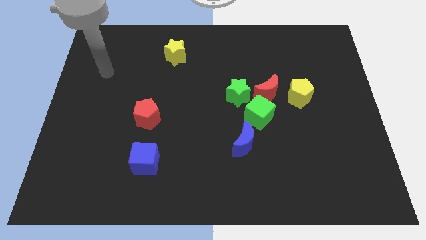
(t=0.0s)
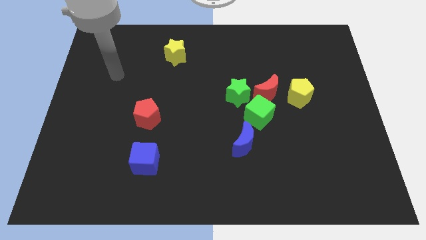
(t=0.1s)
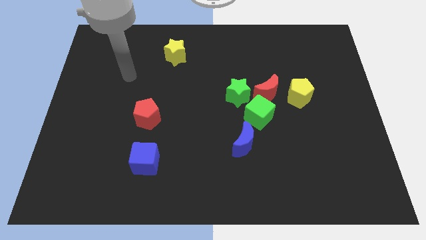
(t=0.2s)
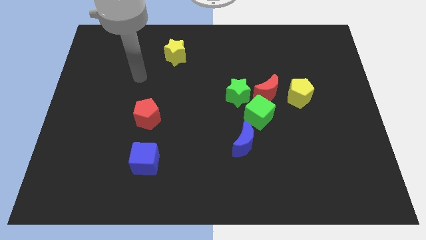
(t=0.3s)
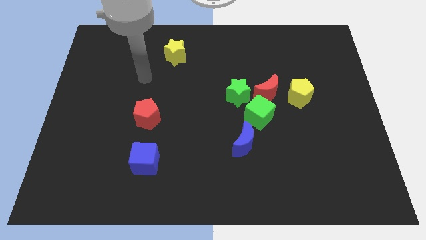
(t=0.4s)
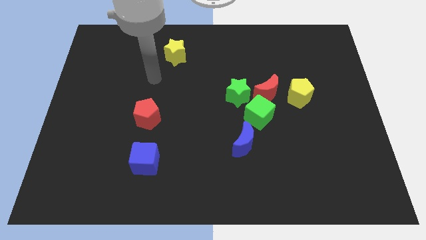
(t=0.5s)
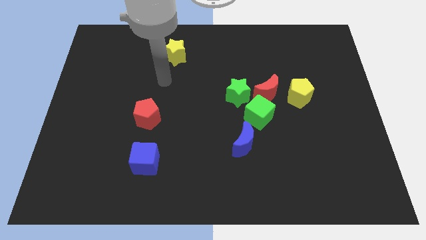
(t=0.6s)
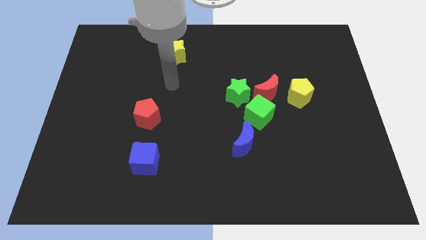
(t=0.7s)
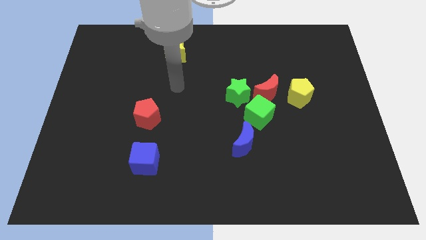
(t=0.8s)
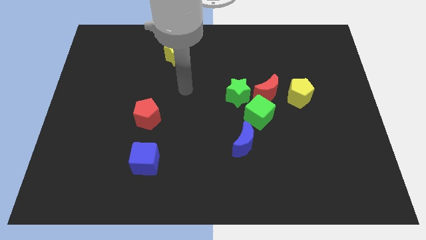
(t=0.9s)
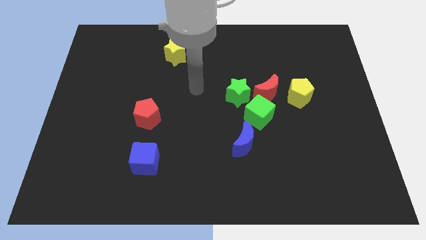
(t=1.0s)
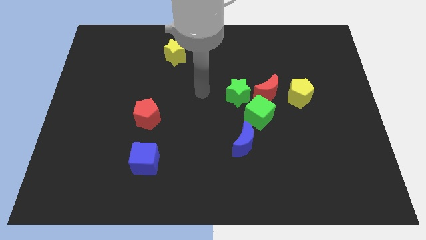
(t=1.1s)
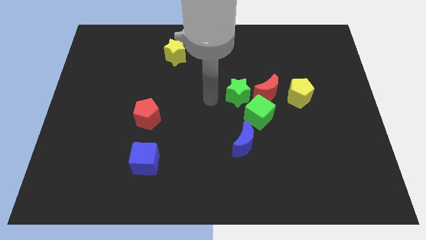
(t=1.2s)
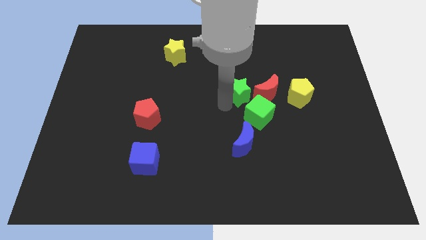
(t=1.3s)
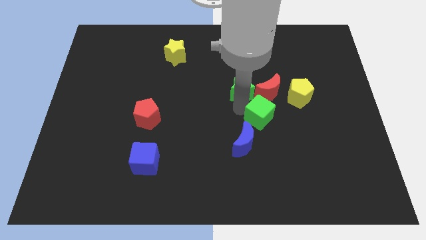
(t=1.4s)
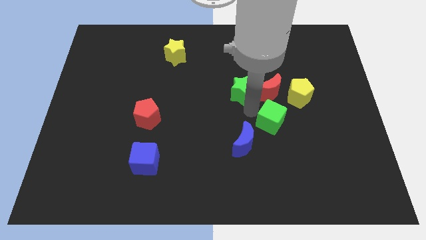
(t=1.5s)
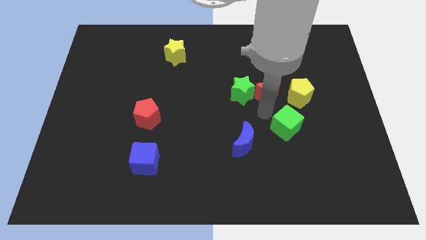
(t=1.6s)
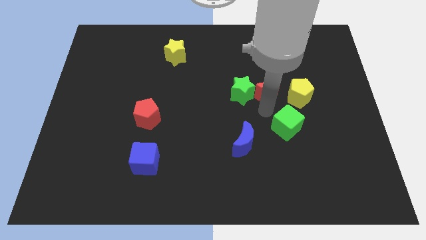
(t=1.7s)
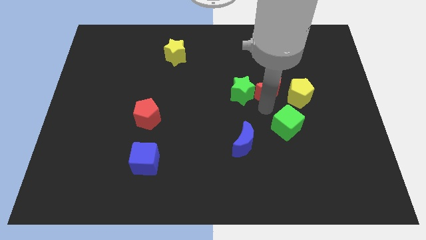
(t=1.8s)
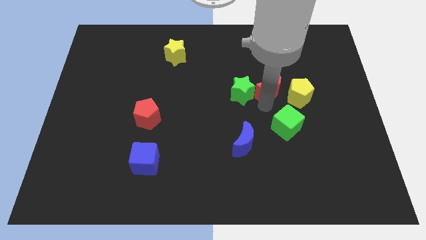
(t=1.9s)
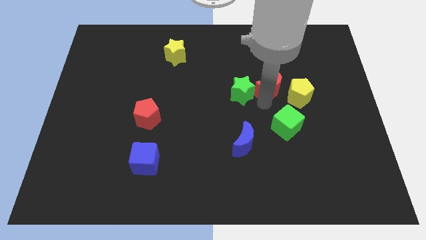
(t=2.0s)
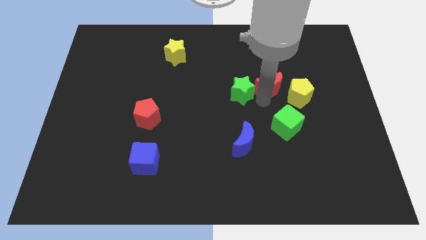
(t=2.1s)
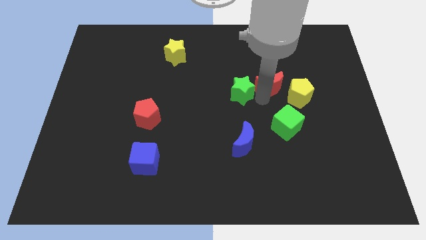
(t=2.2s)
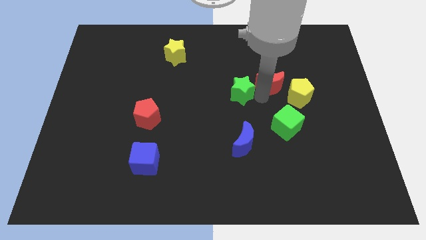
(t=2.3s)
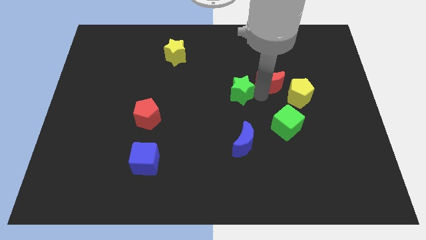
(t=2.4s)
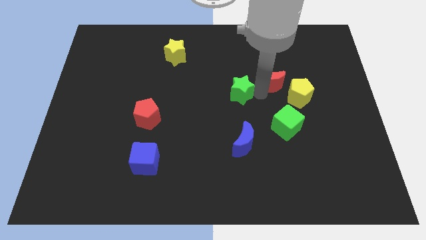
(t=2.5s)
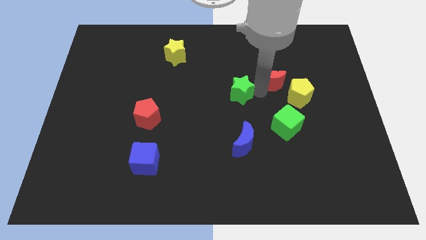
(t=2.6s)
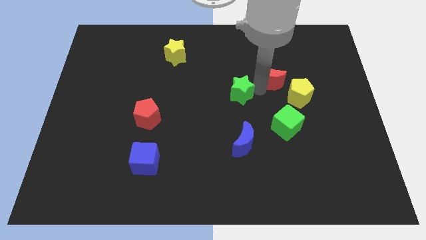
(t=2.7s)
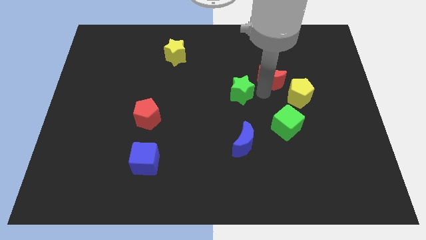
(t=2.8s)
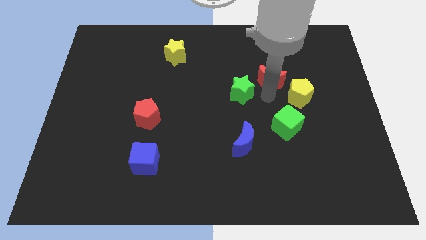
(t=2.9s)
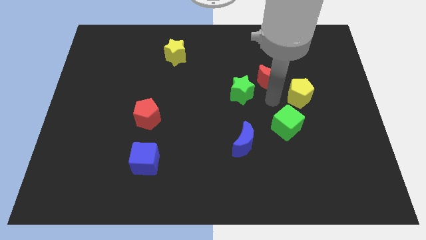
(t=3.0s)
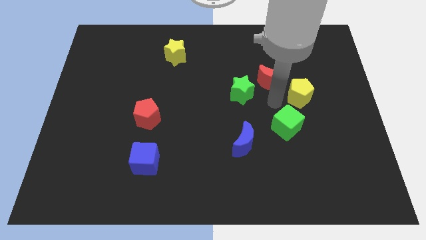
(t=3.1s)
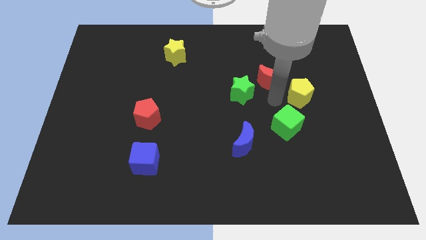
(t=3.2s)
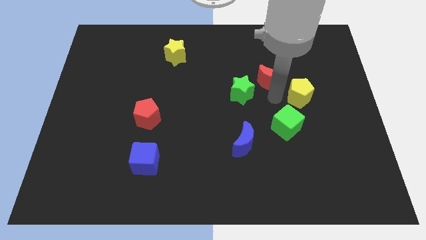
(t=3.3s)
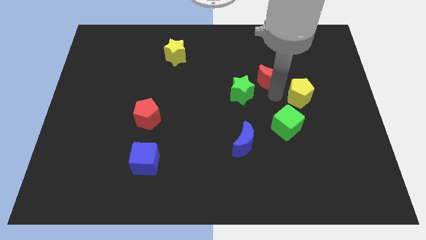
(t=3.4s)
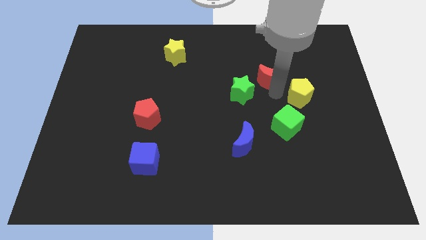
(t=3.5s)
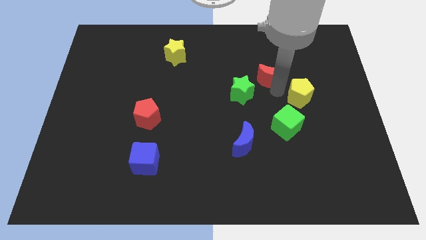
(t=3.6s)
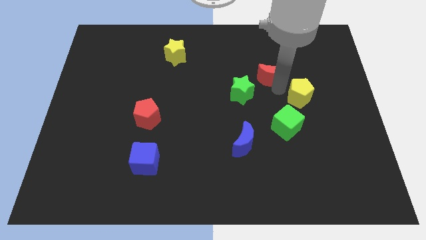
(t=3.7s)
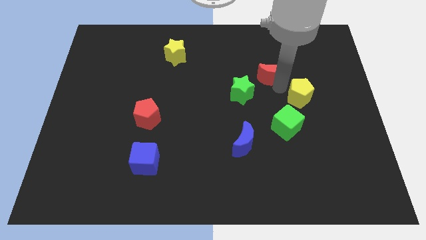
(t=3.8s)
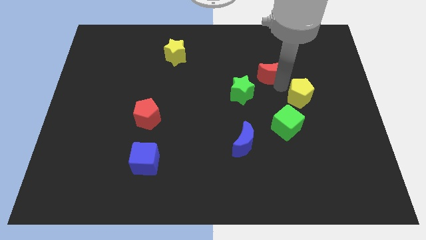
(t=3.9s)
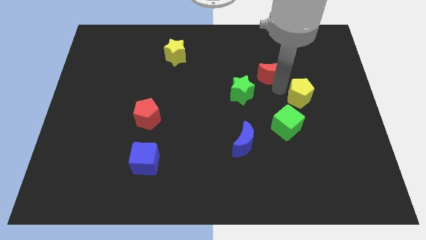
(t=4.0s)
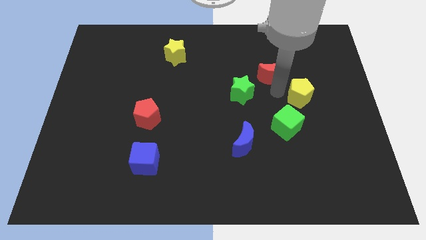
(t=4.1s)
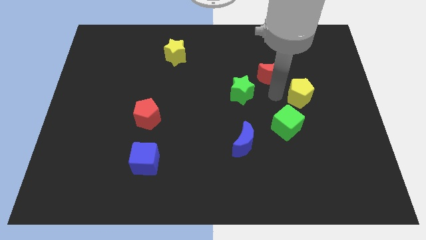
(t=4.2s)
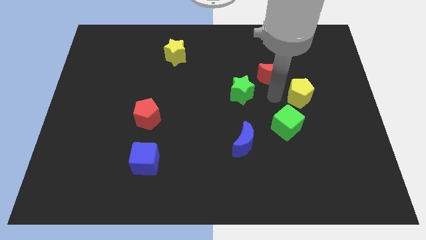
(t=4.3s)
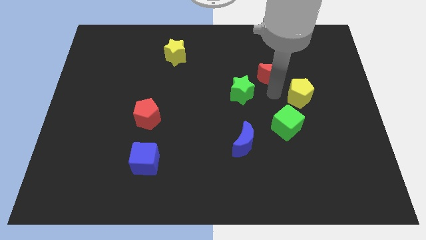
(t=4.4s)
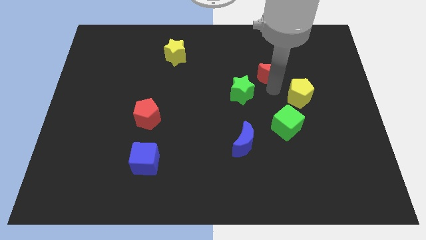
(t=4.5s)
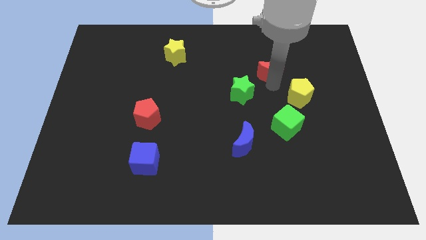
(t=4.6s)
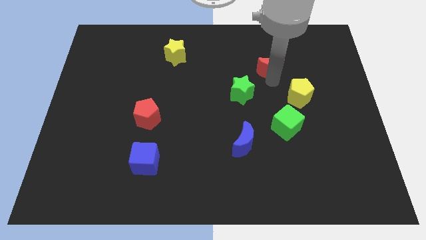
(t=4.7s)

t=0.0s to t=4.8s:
pull the red moon apart from the green cube, green star, and yellow pentagon

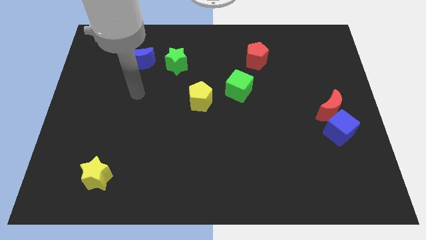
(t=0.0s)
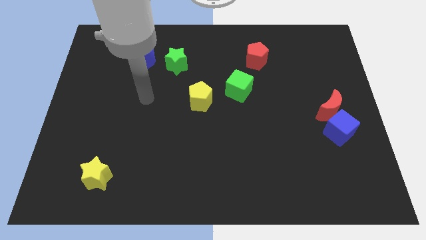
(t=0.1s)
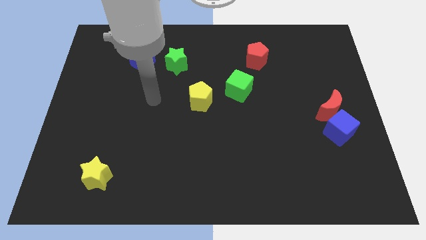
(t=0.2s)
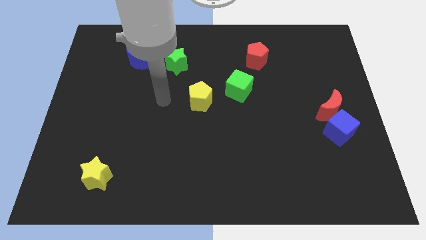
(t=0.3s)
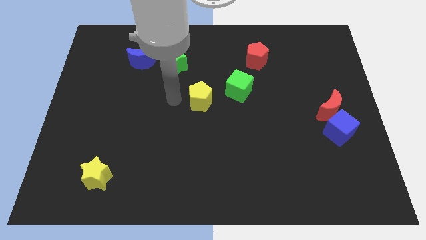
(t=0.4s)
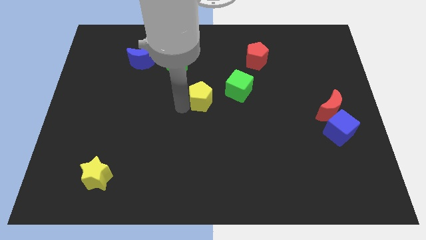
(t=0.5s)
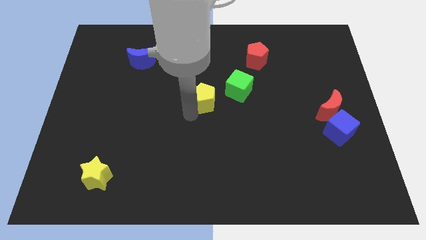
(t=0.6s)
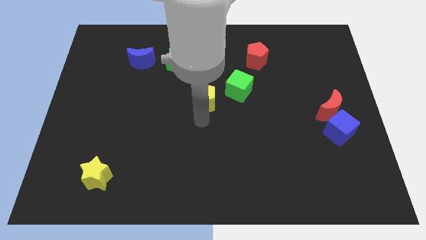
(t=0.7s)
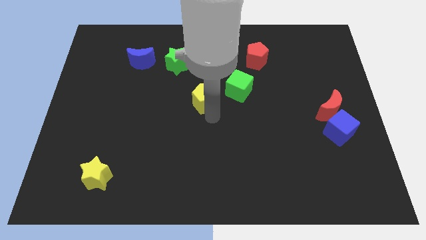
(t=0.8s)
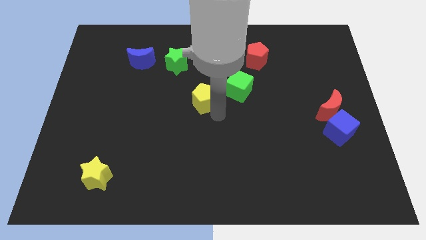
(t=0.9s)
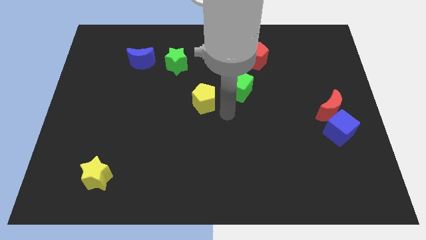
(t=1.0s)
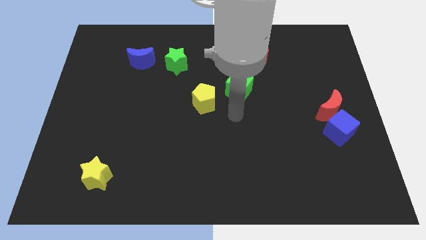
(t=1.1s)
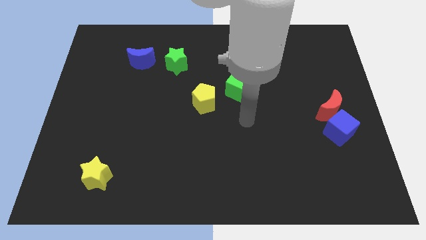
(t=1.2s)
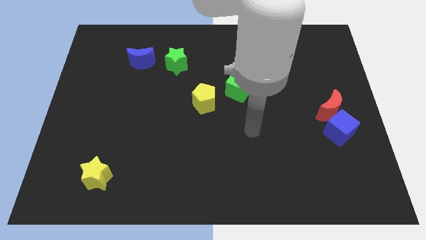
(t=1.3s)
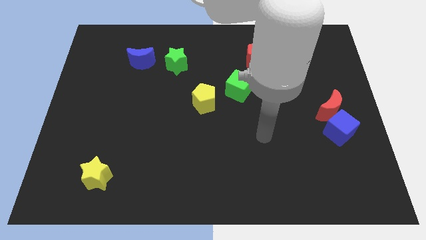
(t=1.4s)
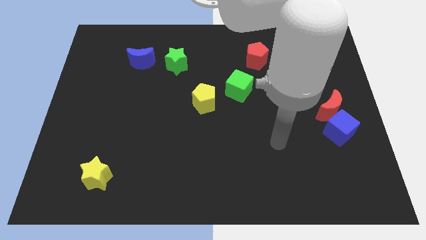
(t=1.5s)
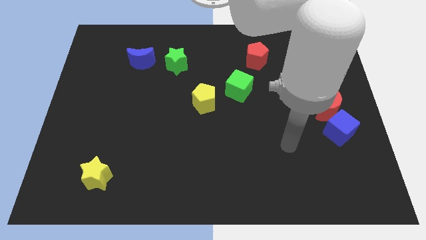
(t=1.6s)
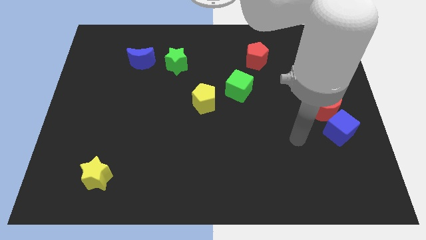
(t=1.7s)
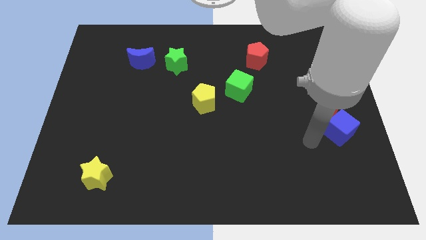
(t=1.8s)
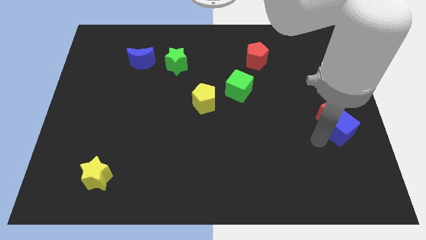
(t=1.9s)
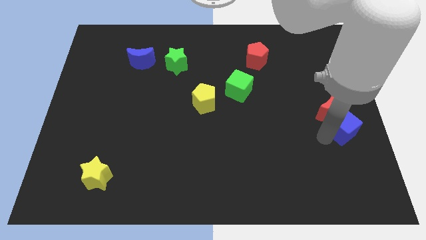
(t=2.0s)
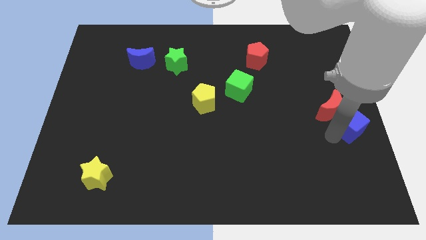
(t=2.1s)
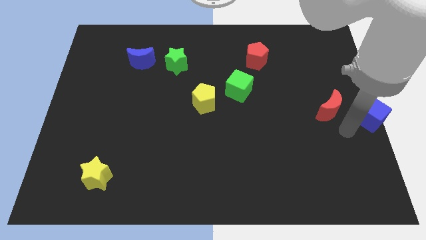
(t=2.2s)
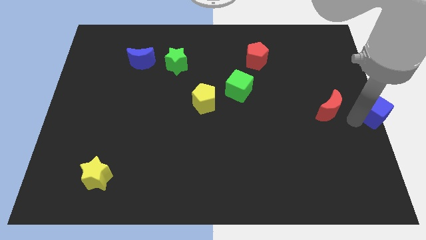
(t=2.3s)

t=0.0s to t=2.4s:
pull the red moon apart from the blue cube

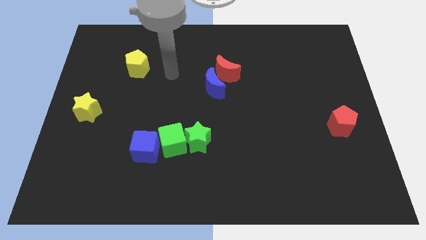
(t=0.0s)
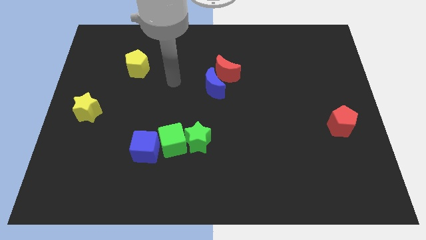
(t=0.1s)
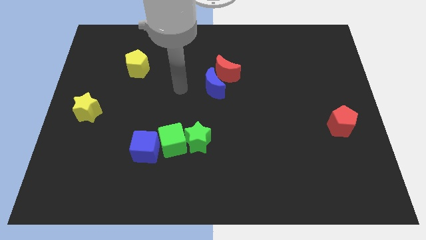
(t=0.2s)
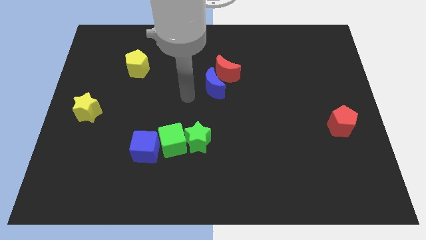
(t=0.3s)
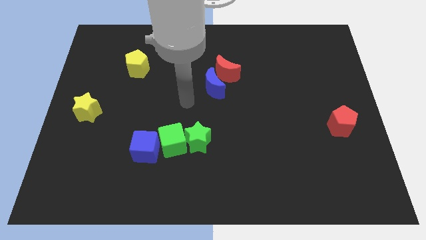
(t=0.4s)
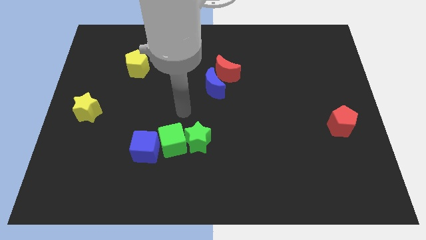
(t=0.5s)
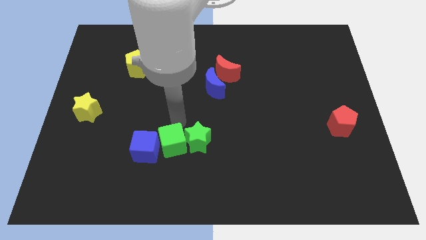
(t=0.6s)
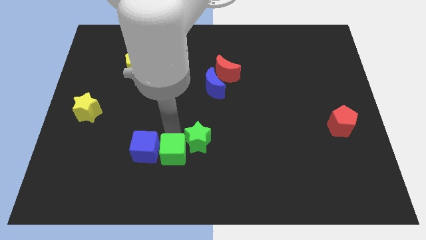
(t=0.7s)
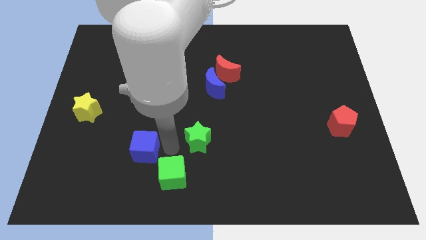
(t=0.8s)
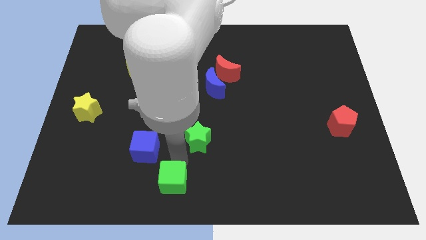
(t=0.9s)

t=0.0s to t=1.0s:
move the green star away from the green cube

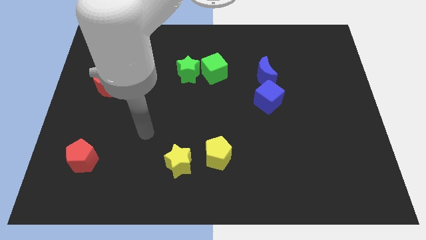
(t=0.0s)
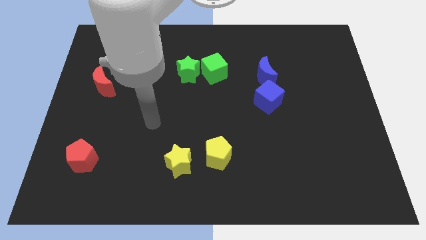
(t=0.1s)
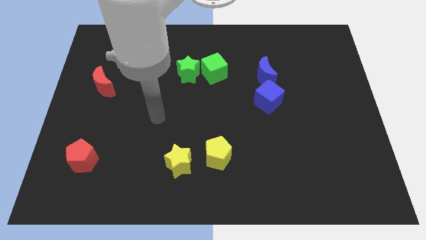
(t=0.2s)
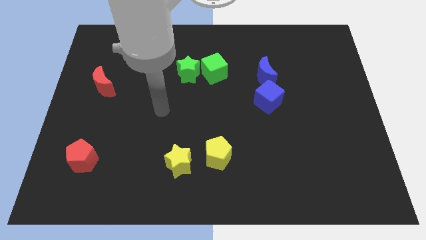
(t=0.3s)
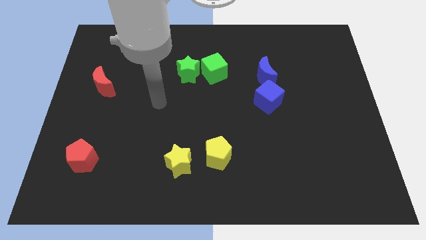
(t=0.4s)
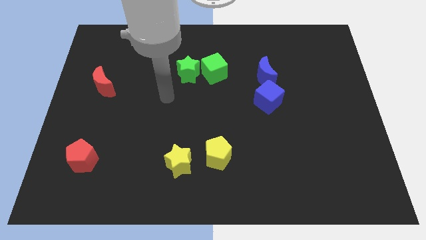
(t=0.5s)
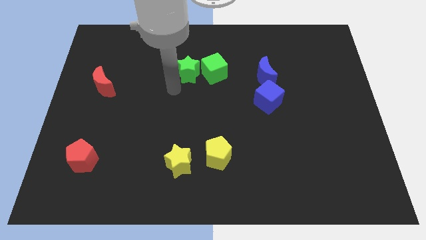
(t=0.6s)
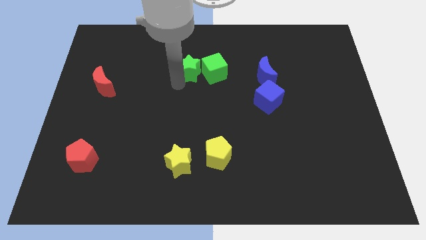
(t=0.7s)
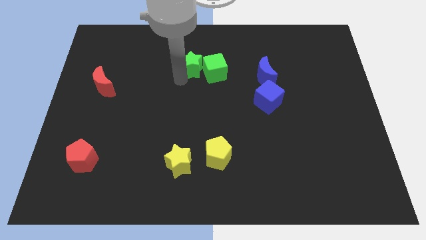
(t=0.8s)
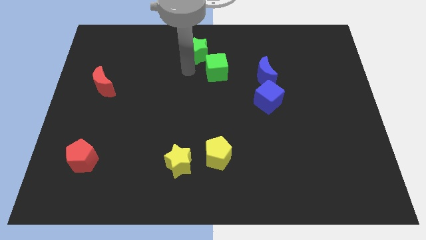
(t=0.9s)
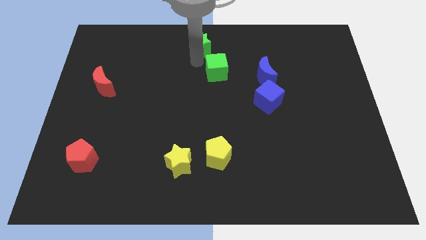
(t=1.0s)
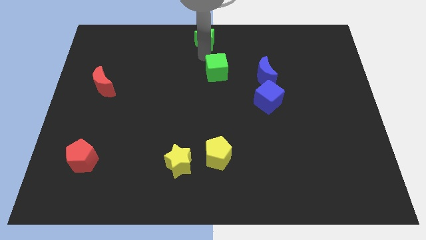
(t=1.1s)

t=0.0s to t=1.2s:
pull the green cube apart from the green star
